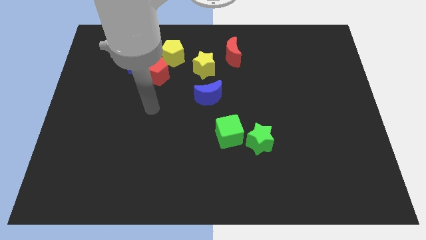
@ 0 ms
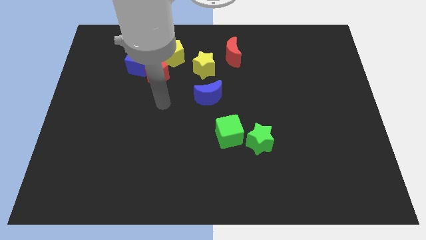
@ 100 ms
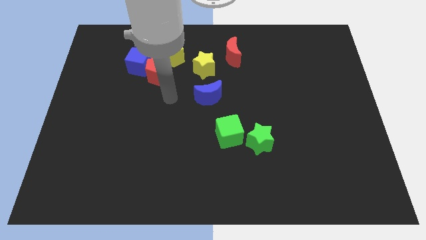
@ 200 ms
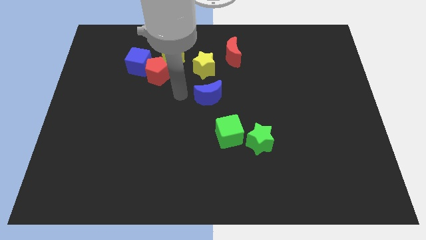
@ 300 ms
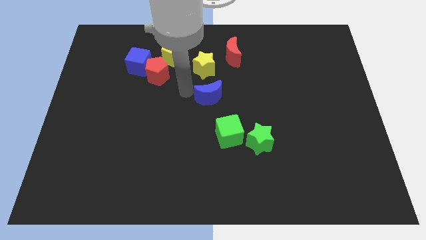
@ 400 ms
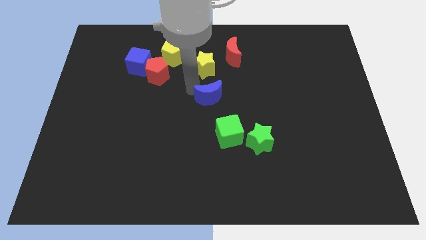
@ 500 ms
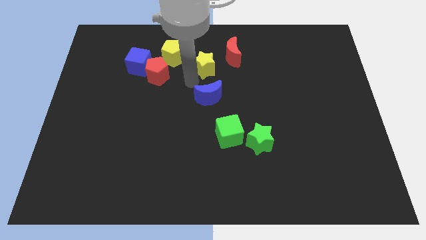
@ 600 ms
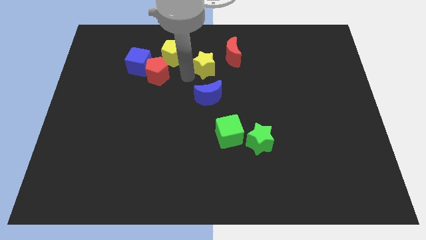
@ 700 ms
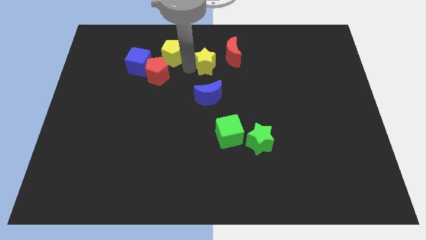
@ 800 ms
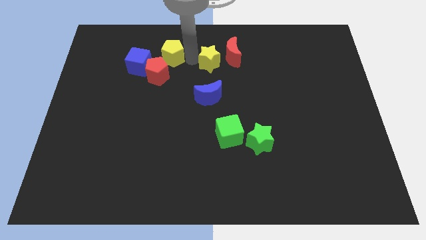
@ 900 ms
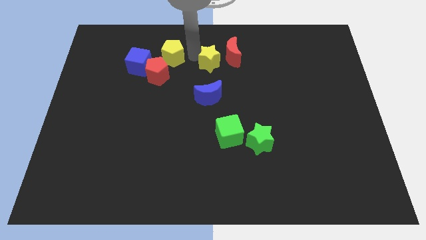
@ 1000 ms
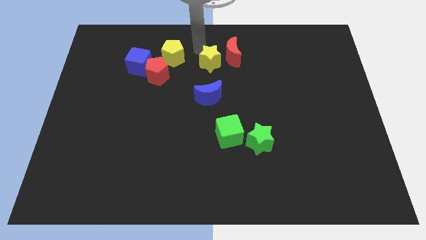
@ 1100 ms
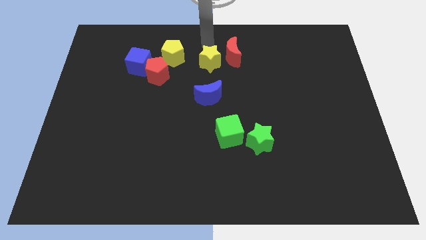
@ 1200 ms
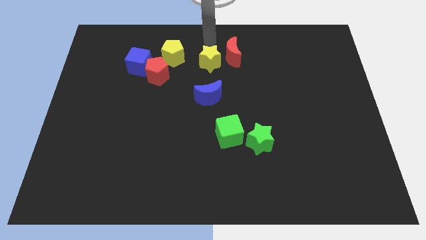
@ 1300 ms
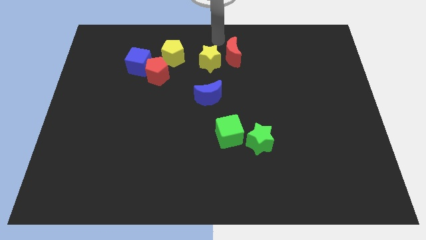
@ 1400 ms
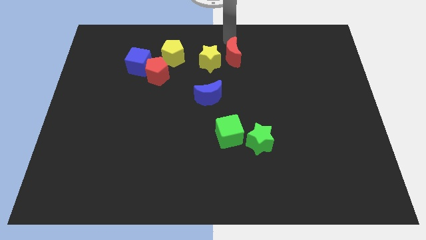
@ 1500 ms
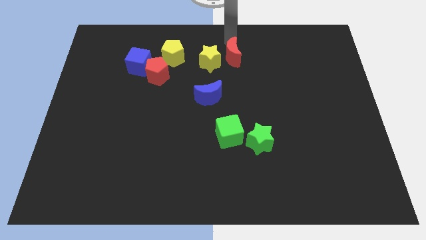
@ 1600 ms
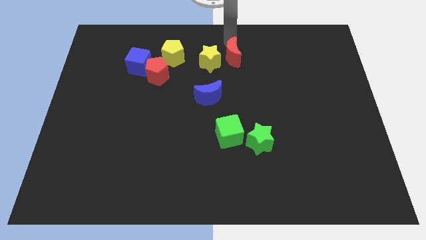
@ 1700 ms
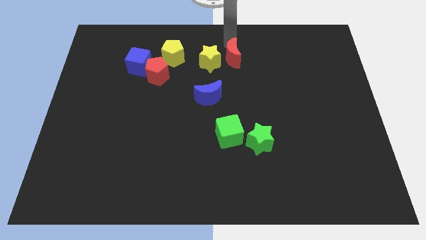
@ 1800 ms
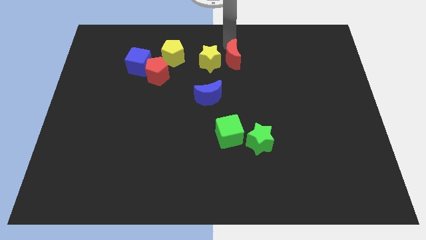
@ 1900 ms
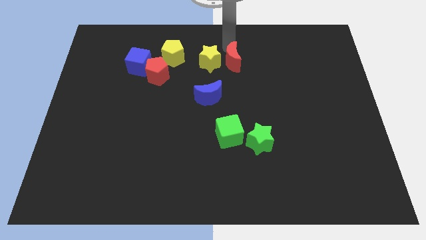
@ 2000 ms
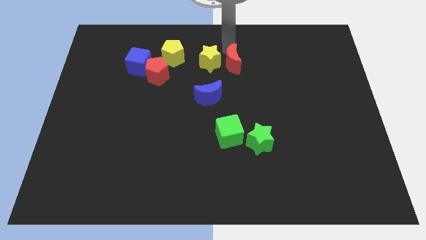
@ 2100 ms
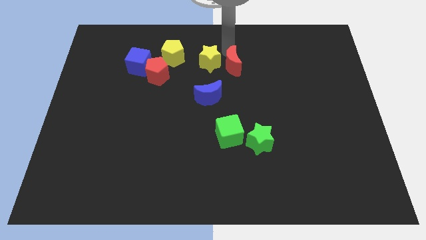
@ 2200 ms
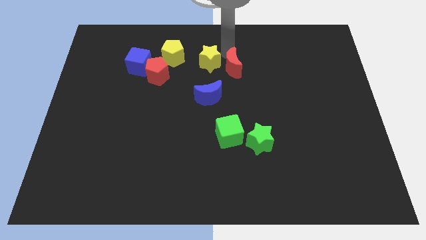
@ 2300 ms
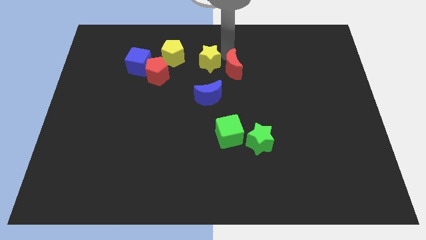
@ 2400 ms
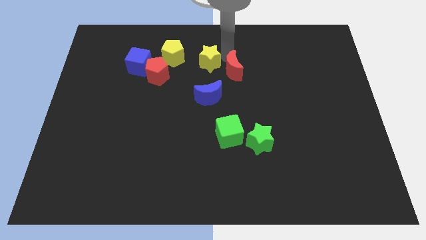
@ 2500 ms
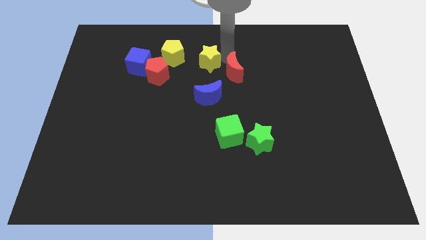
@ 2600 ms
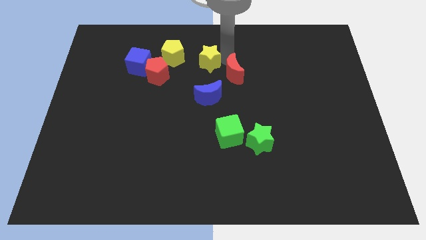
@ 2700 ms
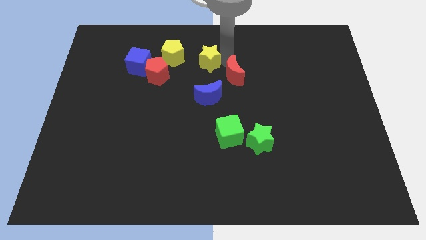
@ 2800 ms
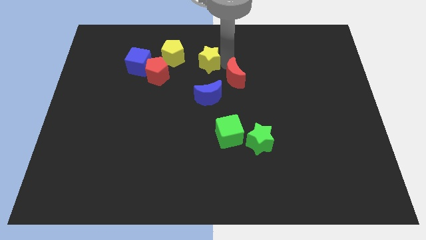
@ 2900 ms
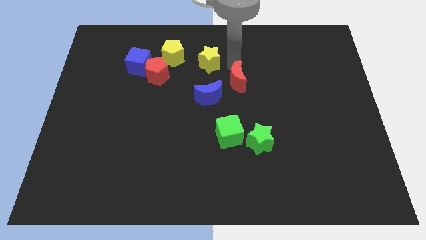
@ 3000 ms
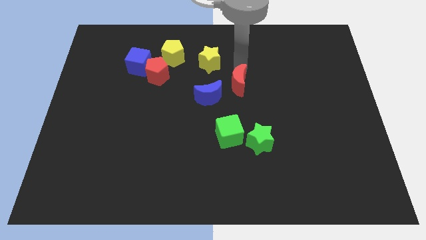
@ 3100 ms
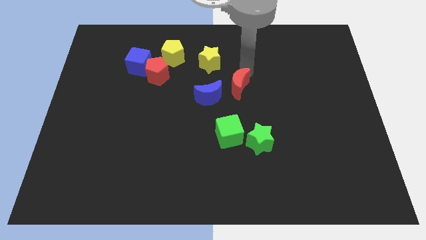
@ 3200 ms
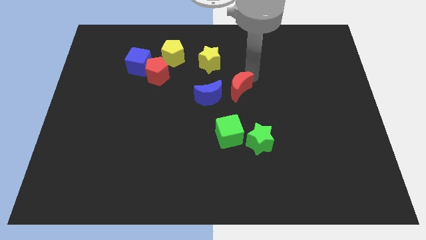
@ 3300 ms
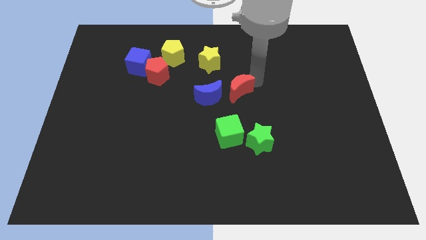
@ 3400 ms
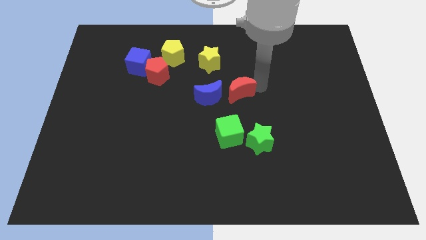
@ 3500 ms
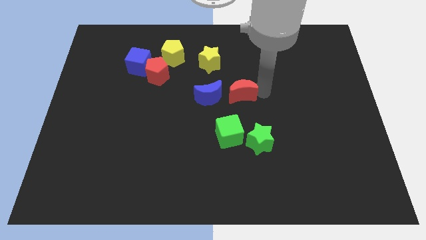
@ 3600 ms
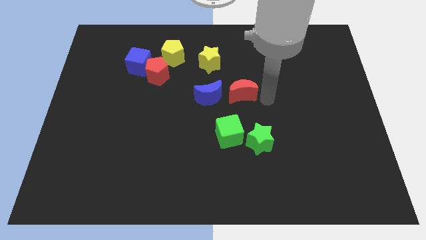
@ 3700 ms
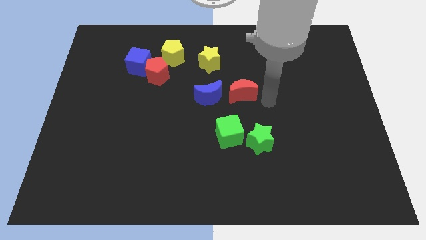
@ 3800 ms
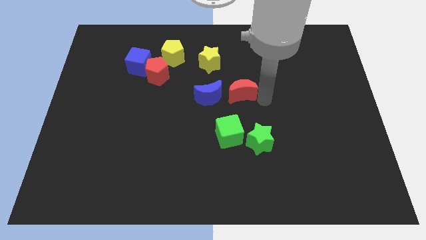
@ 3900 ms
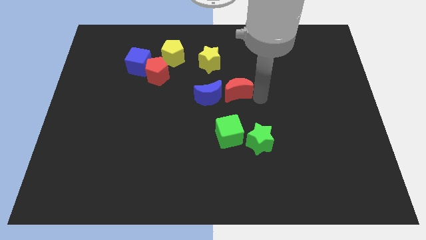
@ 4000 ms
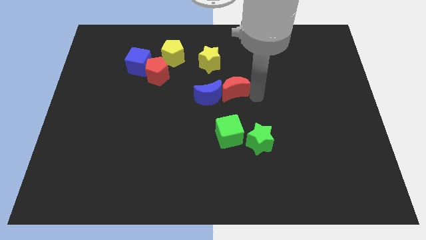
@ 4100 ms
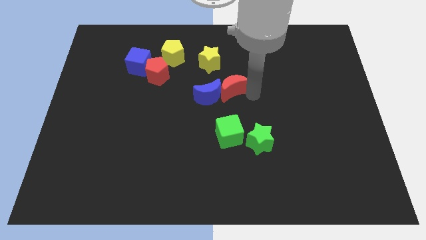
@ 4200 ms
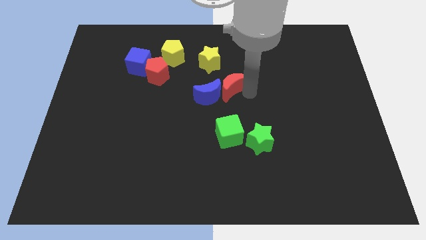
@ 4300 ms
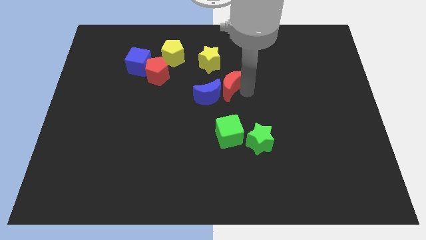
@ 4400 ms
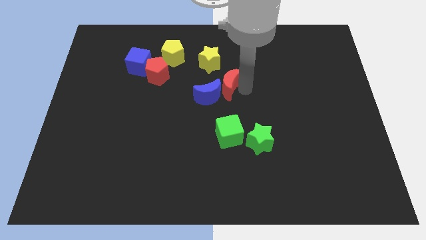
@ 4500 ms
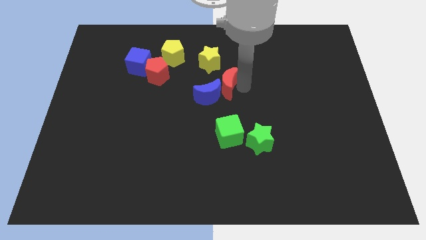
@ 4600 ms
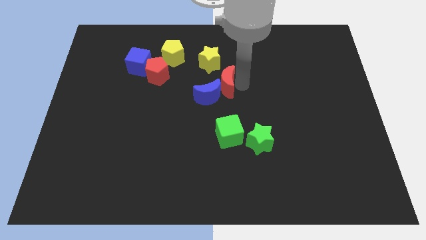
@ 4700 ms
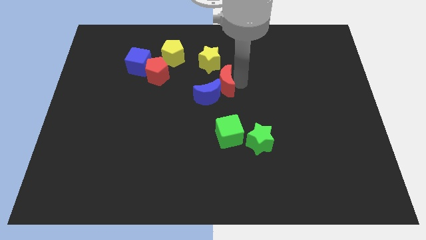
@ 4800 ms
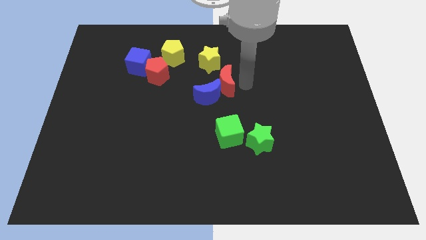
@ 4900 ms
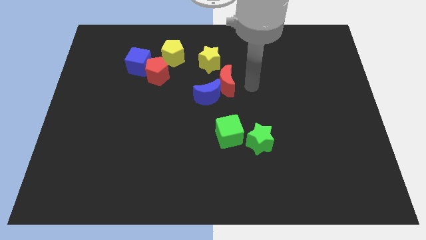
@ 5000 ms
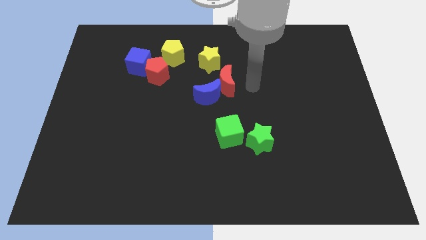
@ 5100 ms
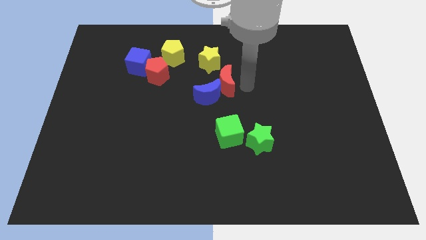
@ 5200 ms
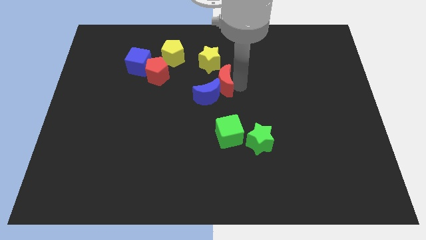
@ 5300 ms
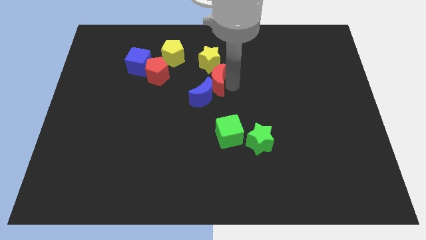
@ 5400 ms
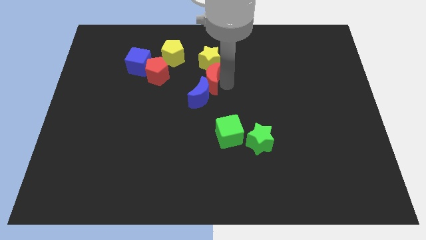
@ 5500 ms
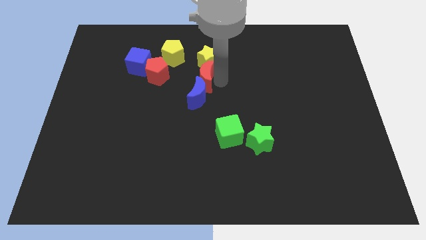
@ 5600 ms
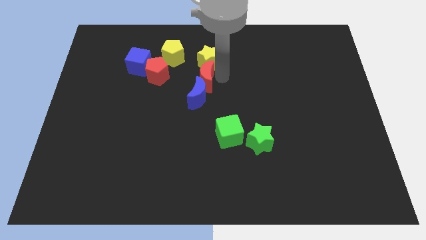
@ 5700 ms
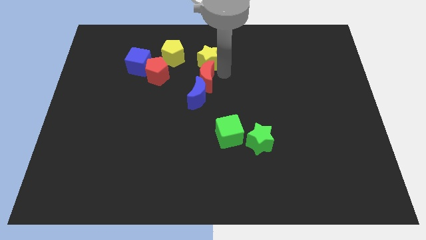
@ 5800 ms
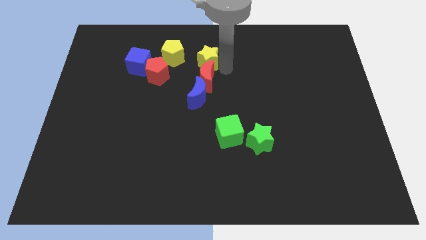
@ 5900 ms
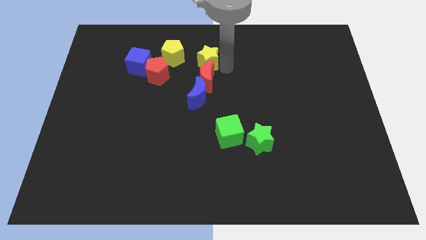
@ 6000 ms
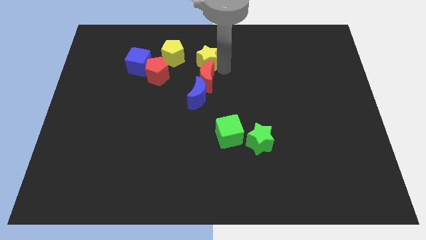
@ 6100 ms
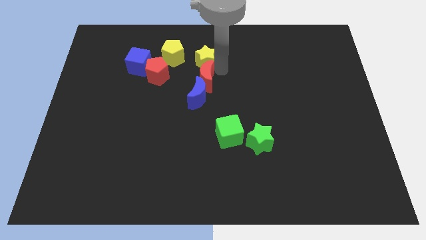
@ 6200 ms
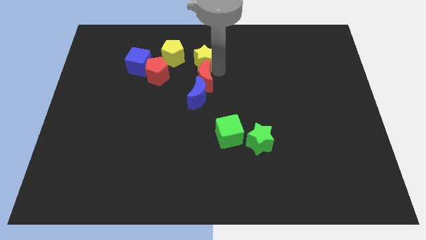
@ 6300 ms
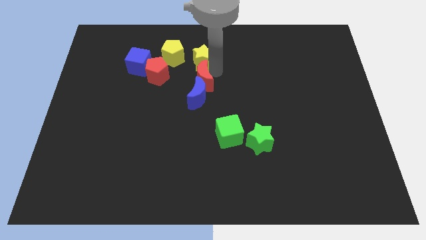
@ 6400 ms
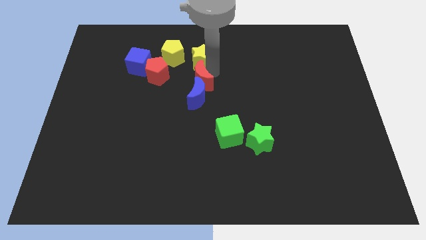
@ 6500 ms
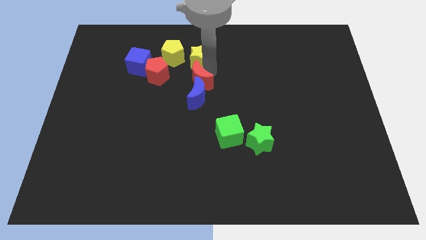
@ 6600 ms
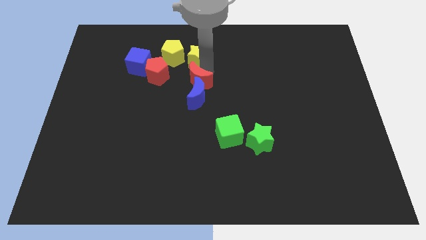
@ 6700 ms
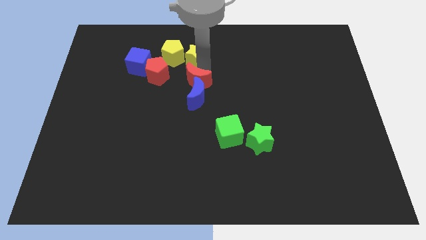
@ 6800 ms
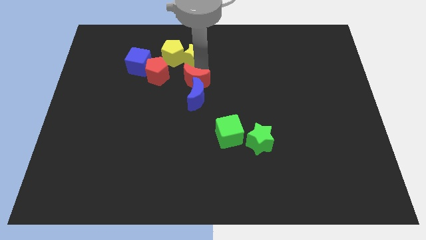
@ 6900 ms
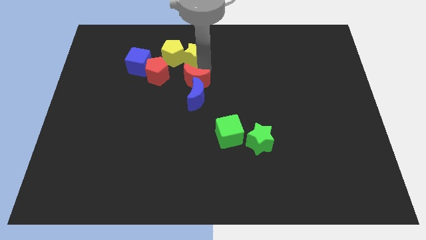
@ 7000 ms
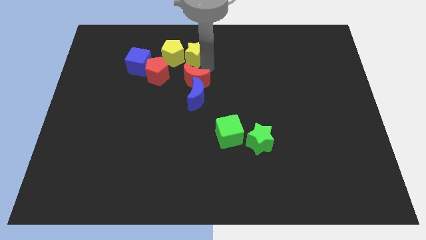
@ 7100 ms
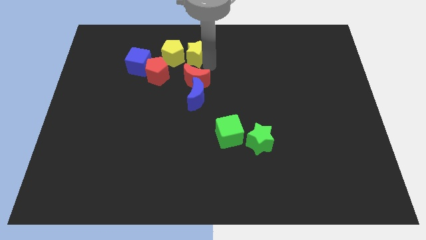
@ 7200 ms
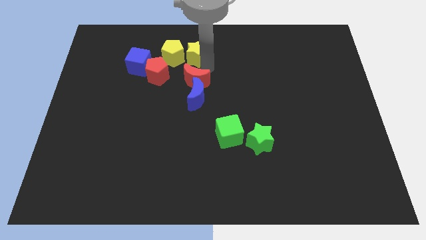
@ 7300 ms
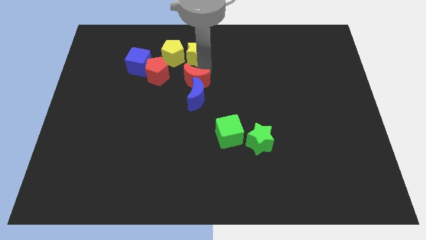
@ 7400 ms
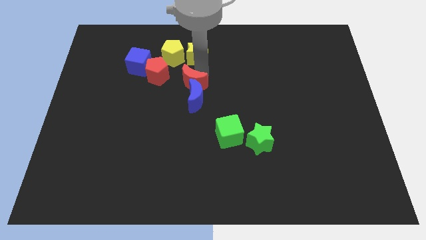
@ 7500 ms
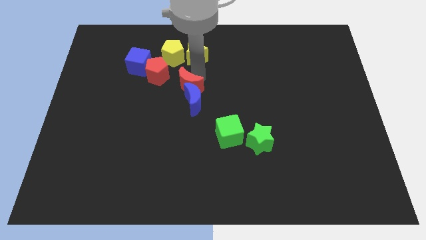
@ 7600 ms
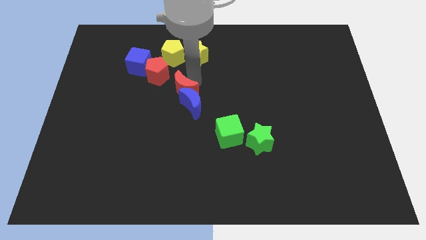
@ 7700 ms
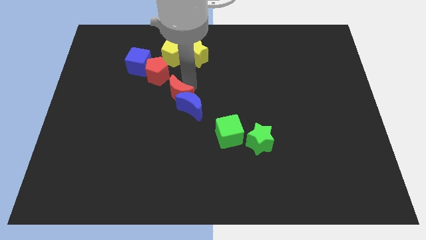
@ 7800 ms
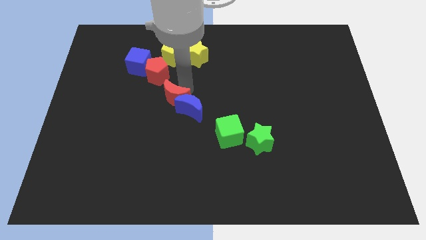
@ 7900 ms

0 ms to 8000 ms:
push the red moon downwards and to the left diagonally
